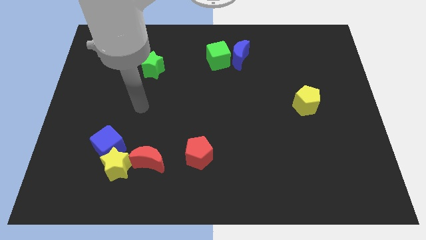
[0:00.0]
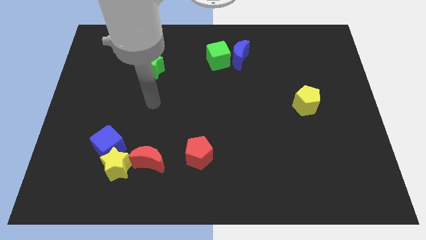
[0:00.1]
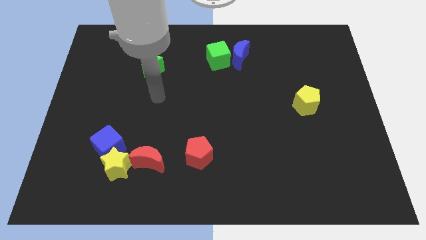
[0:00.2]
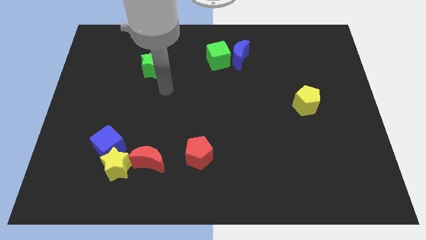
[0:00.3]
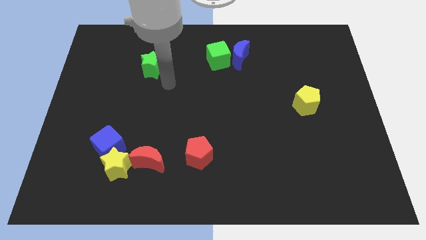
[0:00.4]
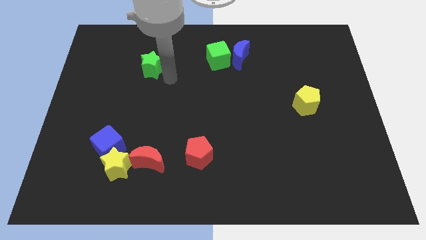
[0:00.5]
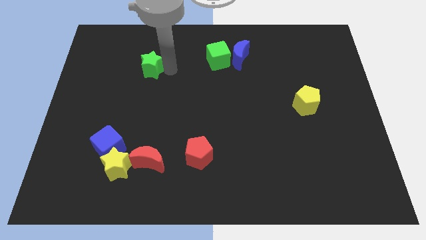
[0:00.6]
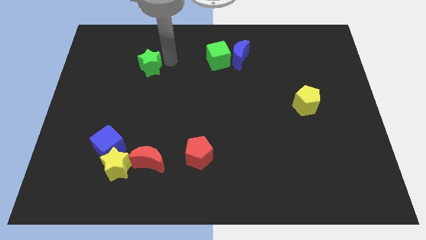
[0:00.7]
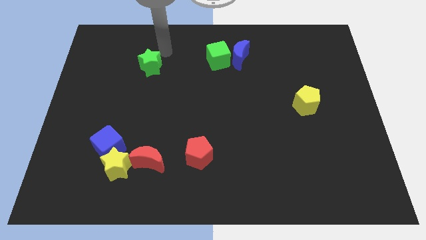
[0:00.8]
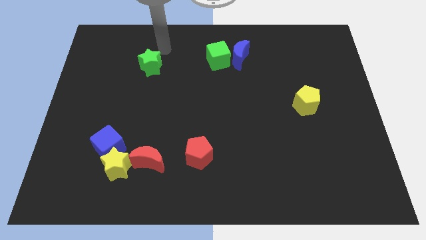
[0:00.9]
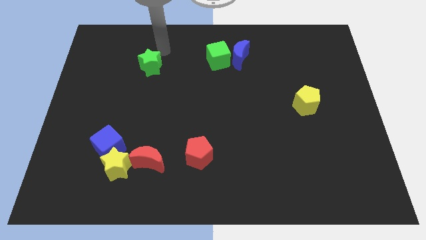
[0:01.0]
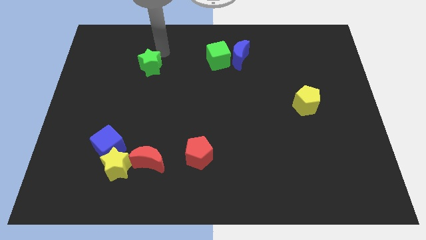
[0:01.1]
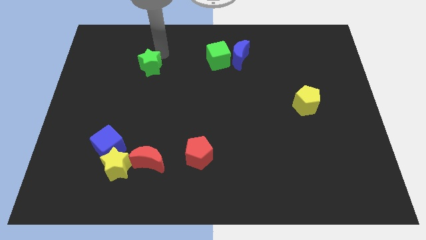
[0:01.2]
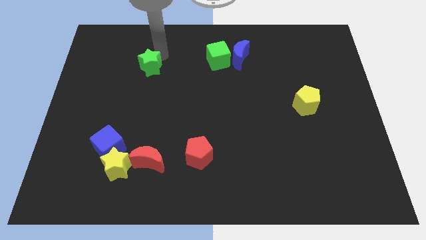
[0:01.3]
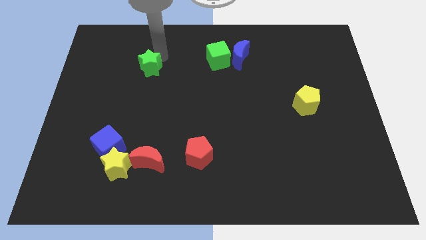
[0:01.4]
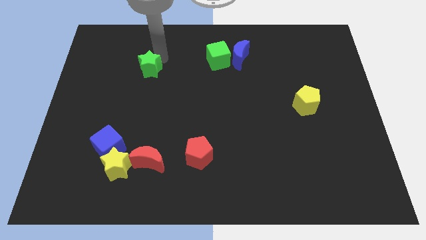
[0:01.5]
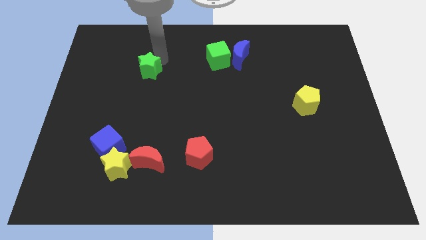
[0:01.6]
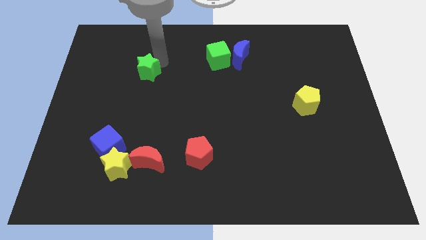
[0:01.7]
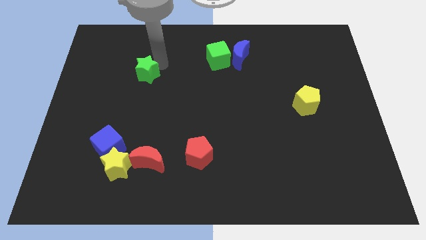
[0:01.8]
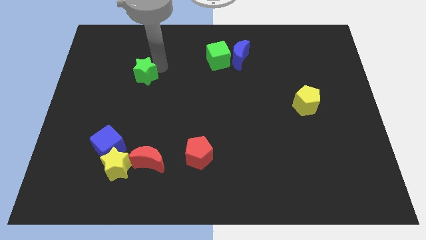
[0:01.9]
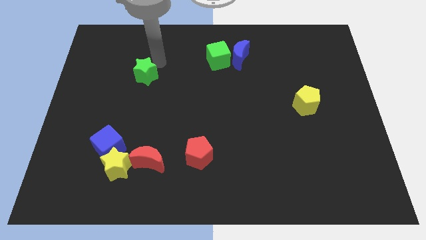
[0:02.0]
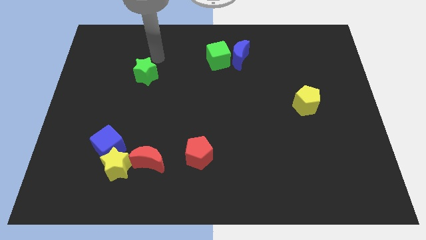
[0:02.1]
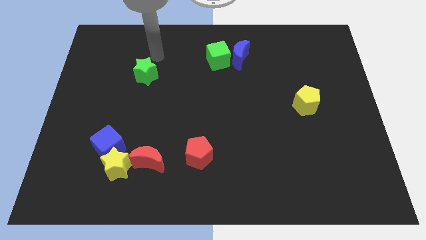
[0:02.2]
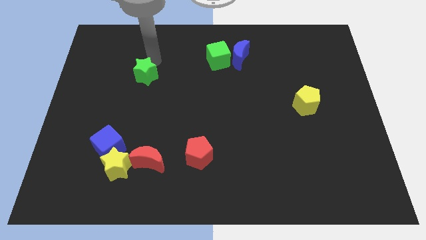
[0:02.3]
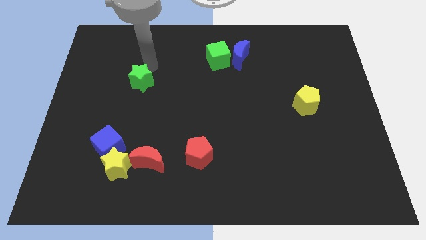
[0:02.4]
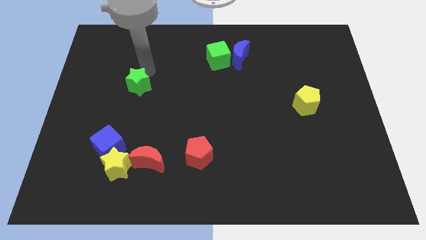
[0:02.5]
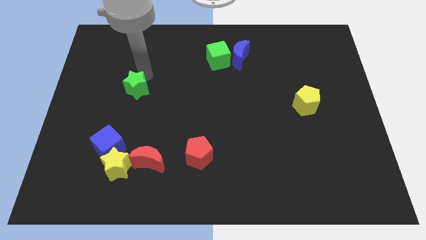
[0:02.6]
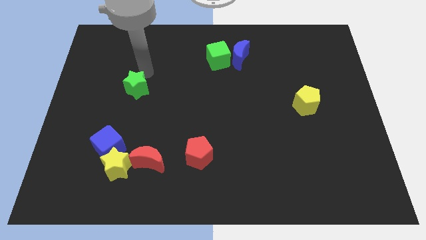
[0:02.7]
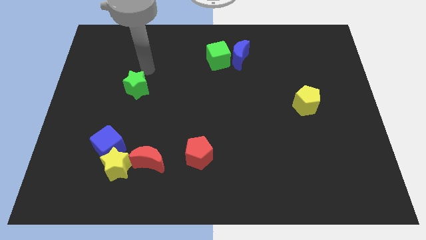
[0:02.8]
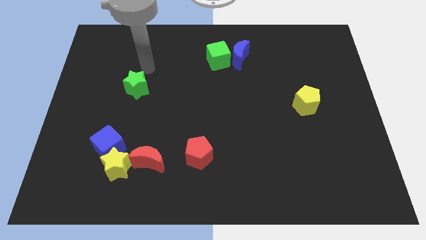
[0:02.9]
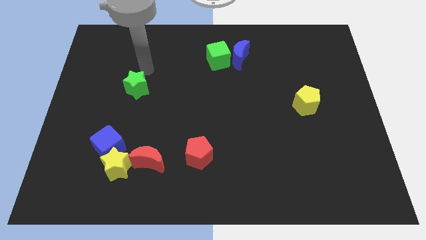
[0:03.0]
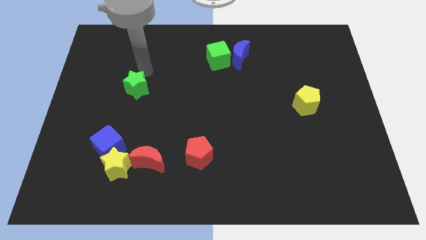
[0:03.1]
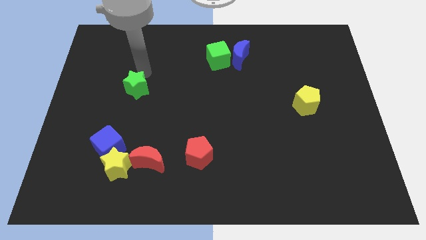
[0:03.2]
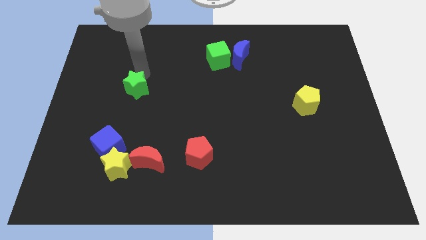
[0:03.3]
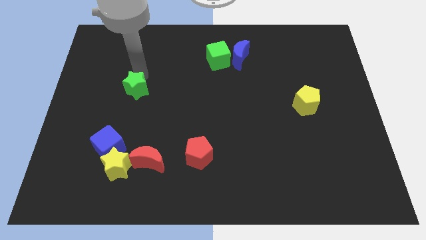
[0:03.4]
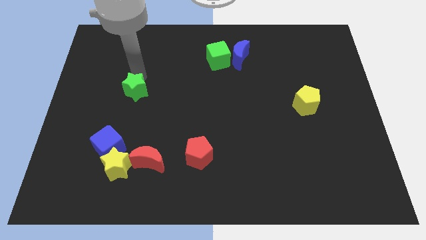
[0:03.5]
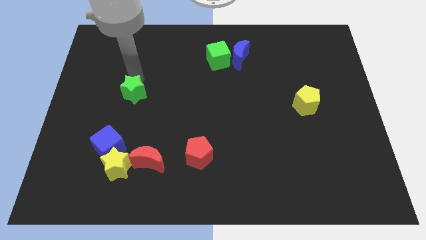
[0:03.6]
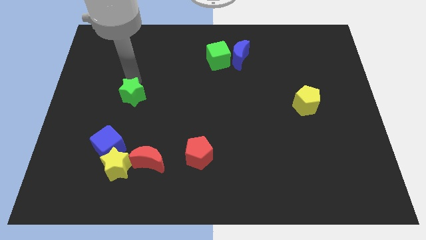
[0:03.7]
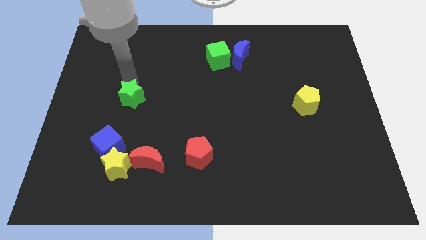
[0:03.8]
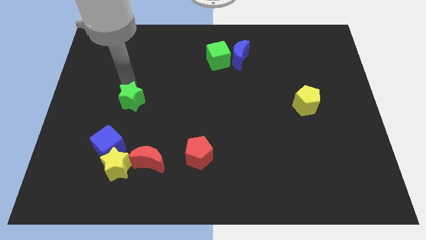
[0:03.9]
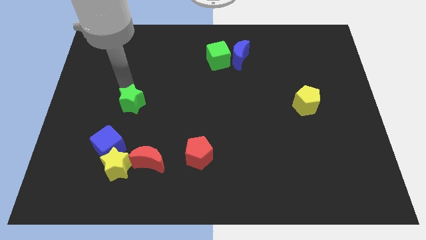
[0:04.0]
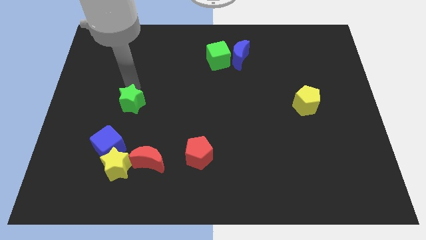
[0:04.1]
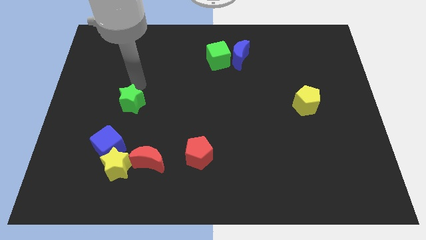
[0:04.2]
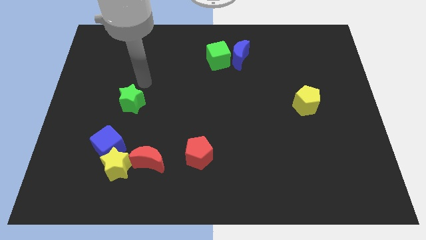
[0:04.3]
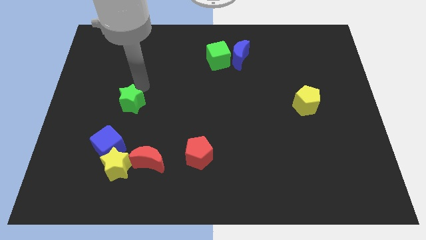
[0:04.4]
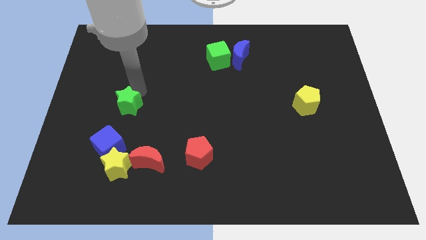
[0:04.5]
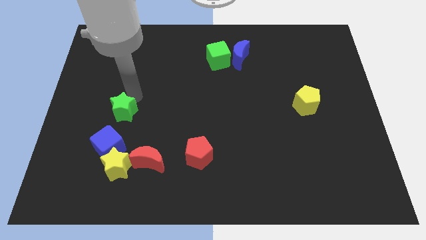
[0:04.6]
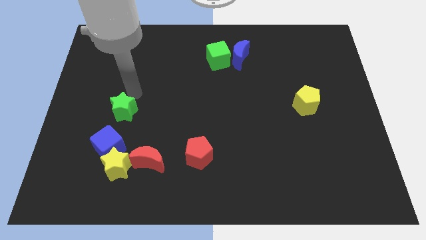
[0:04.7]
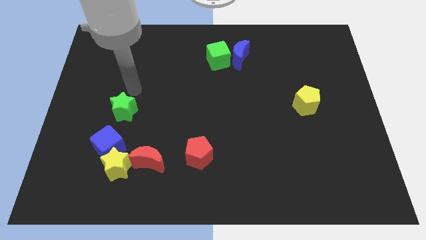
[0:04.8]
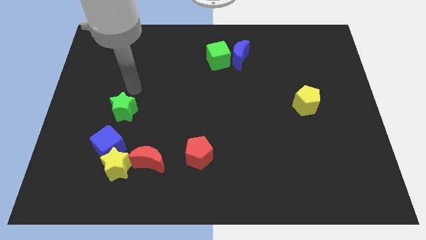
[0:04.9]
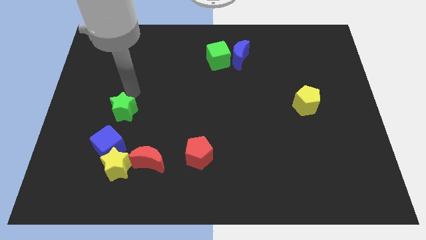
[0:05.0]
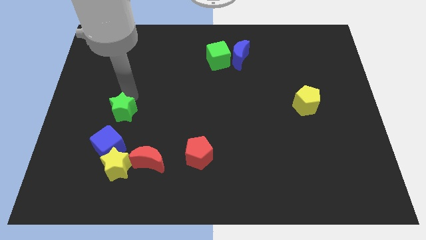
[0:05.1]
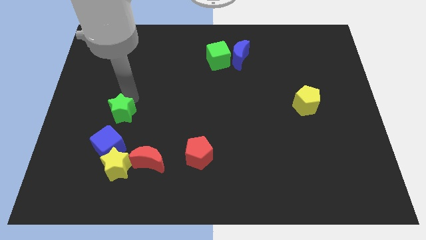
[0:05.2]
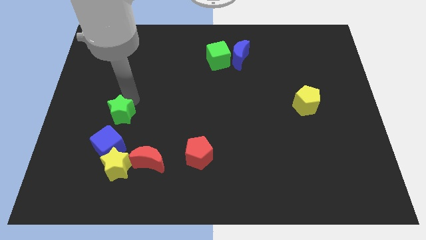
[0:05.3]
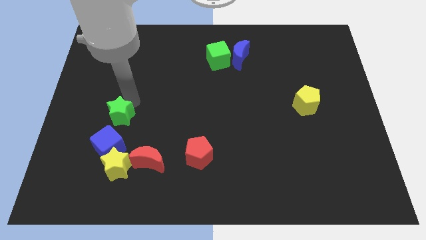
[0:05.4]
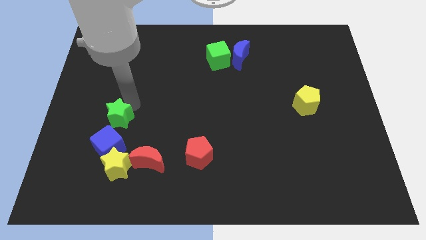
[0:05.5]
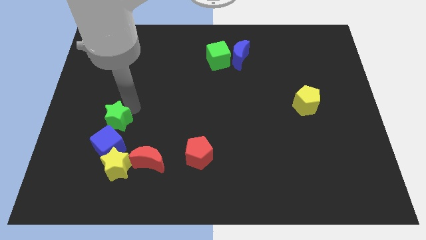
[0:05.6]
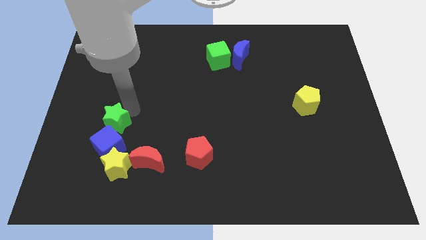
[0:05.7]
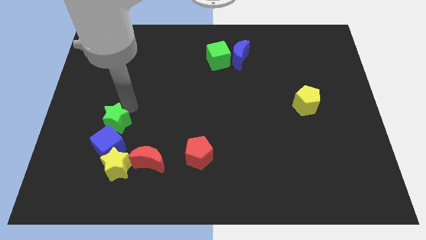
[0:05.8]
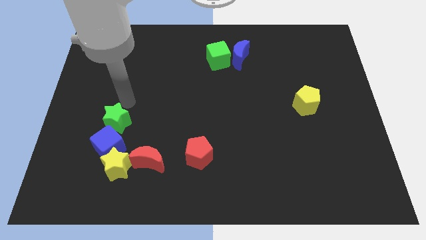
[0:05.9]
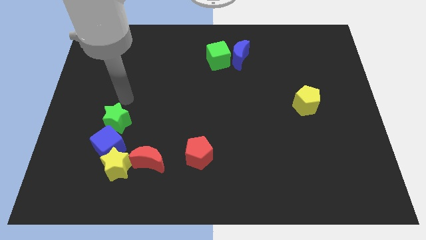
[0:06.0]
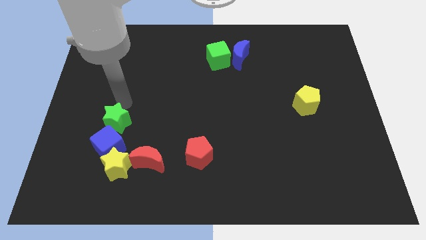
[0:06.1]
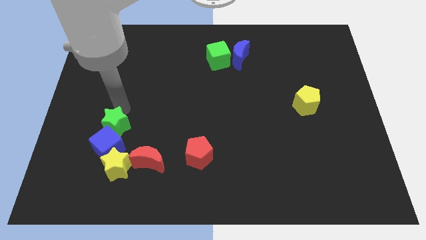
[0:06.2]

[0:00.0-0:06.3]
put the green star next to the blue cube

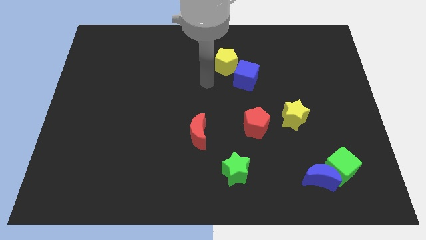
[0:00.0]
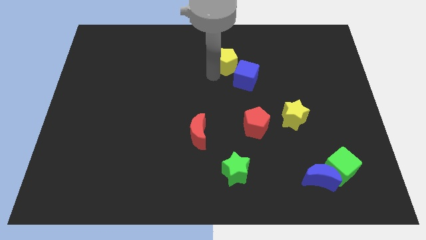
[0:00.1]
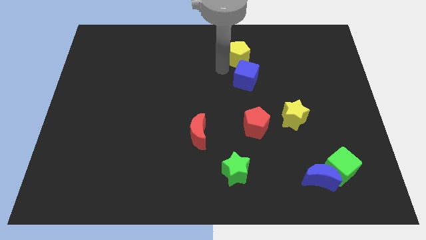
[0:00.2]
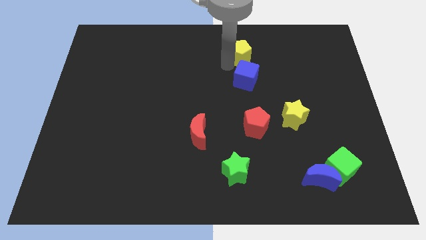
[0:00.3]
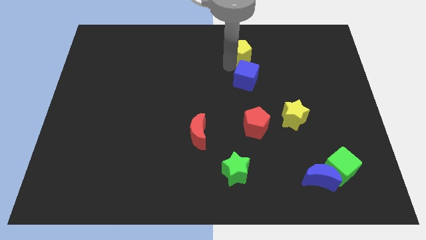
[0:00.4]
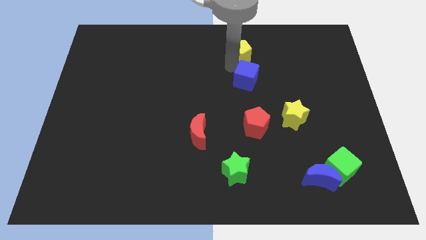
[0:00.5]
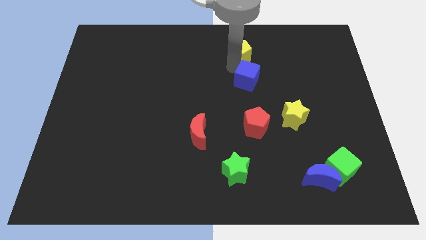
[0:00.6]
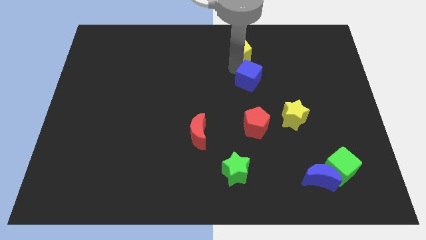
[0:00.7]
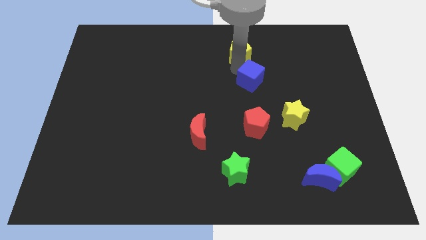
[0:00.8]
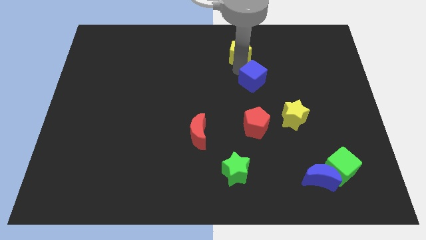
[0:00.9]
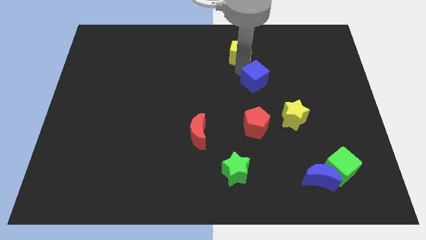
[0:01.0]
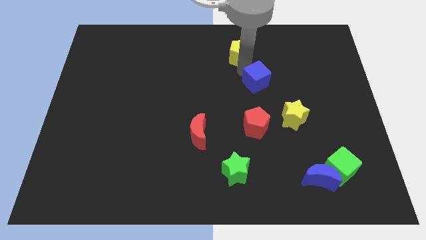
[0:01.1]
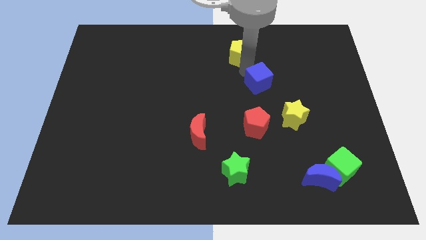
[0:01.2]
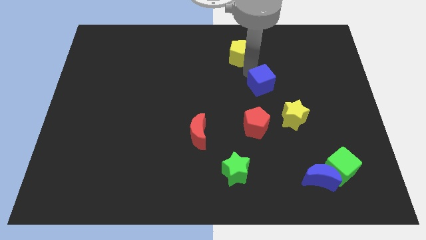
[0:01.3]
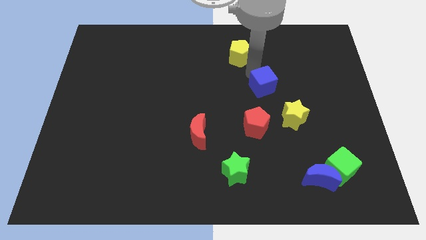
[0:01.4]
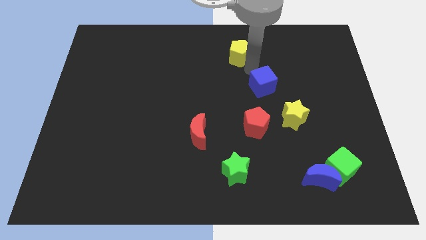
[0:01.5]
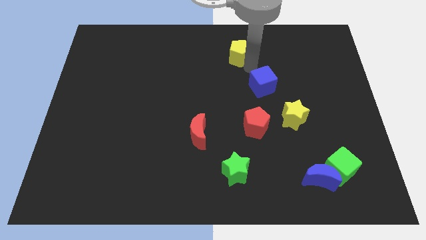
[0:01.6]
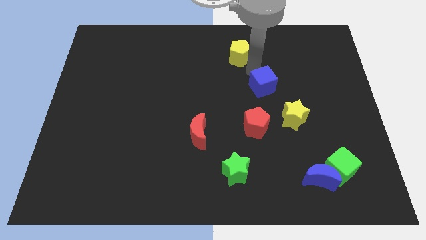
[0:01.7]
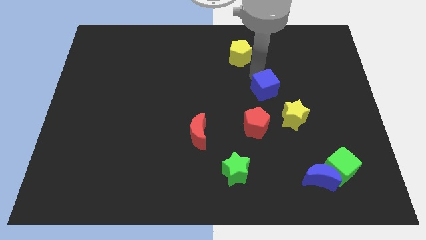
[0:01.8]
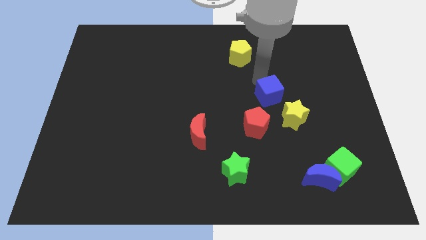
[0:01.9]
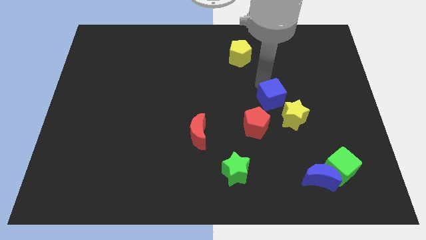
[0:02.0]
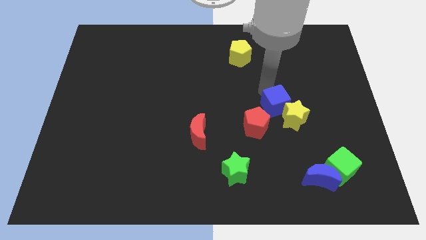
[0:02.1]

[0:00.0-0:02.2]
put the blue cube close to the yellow star
